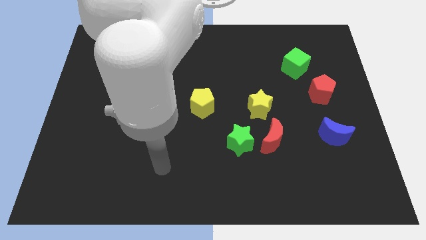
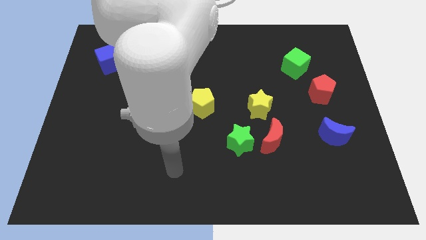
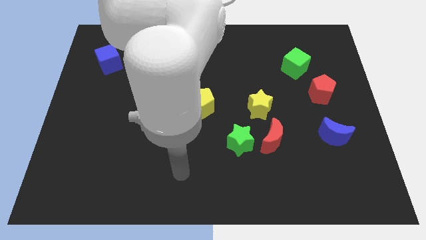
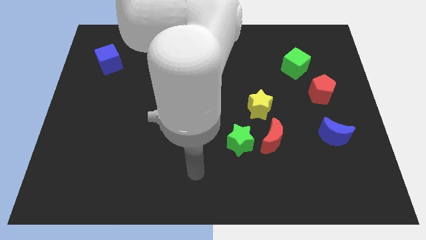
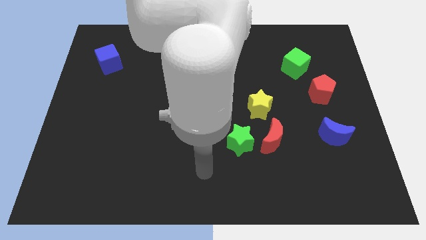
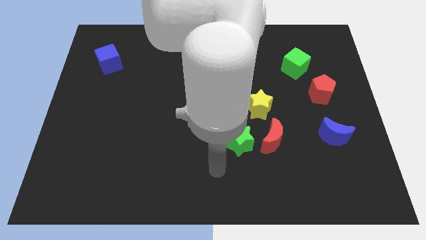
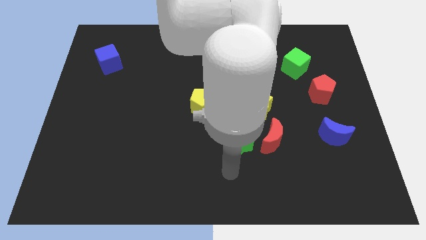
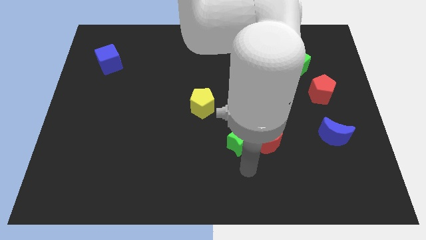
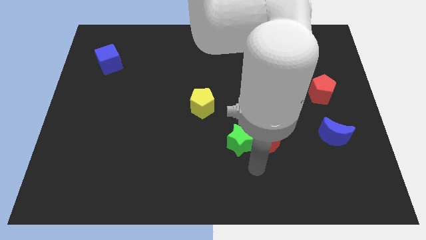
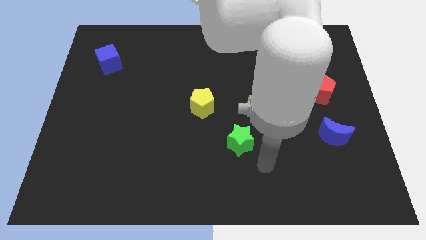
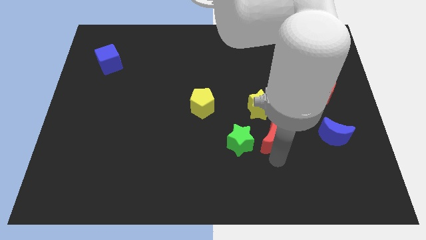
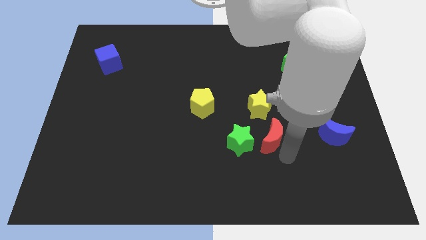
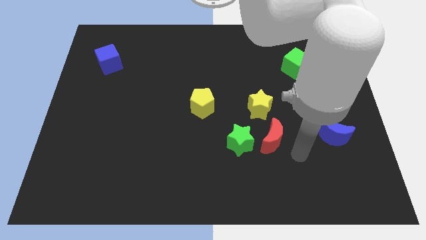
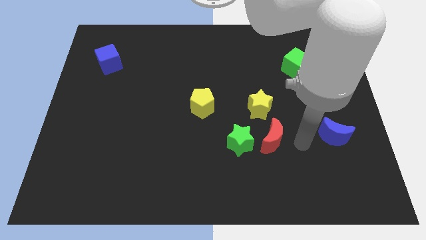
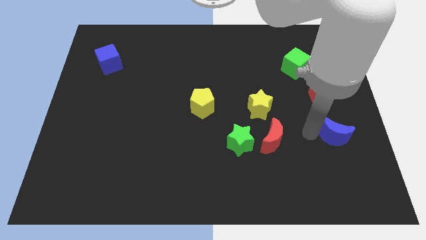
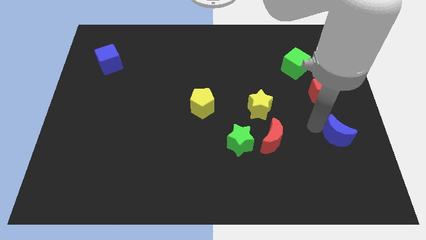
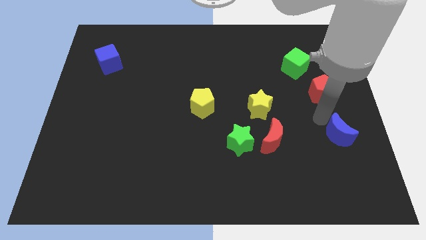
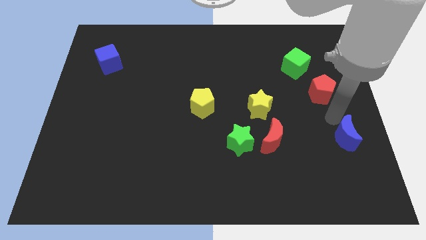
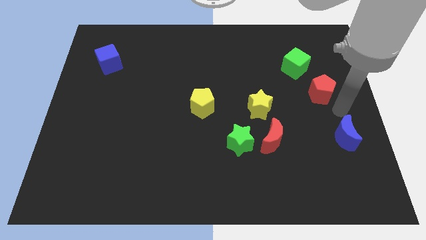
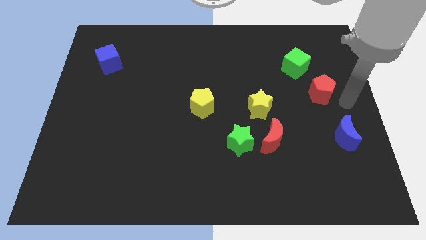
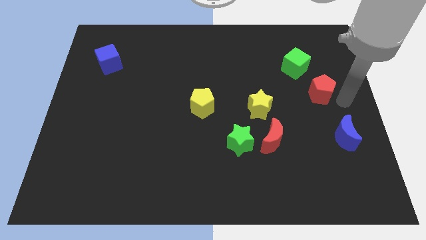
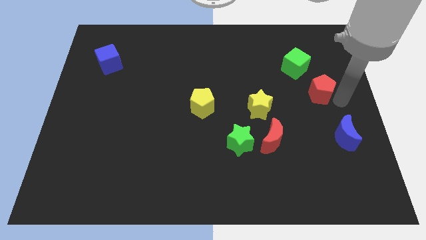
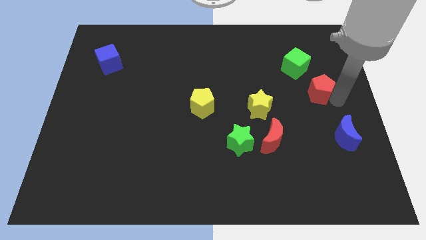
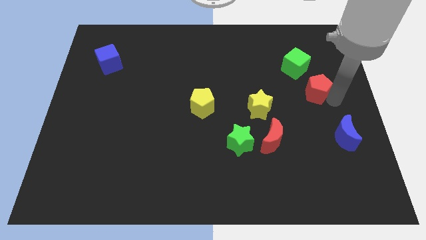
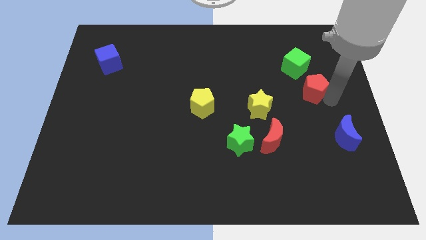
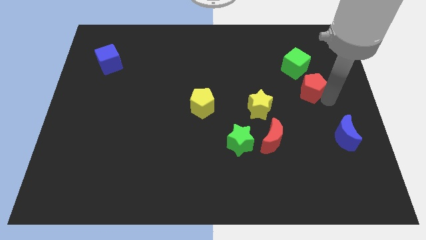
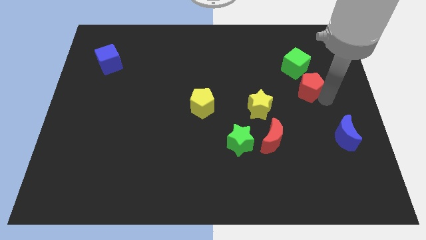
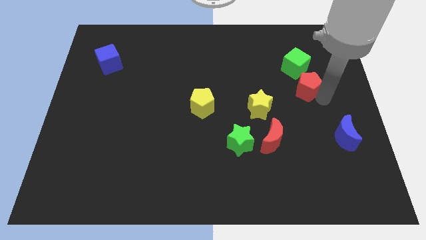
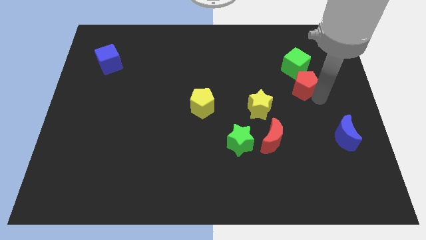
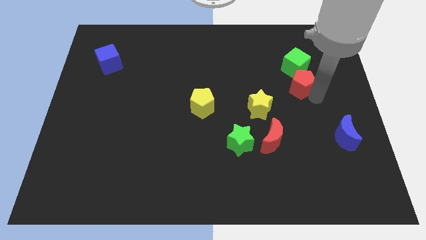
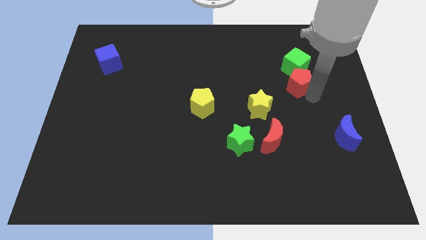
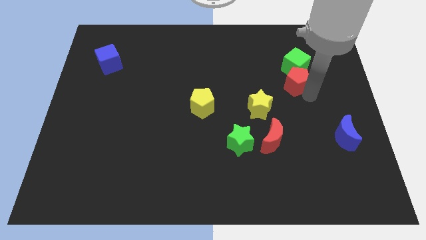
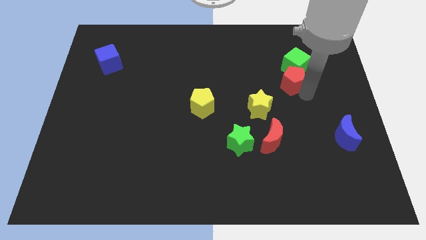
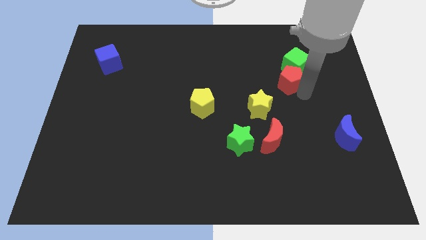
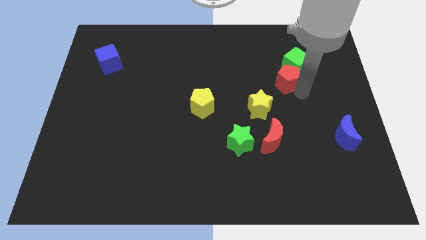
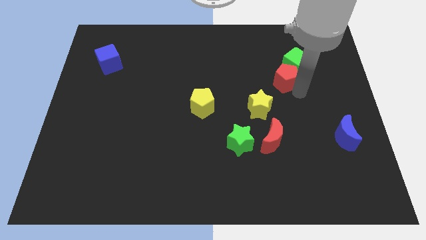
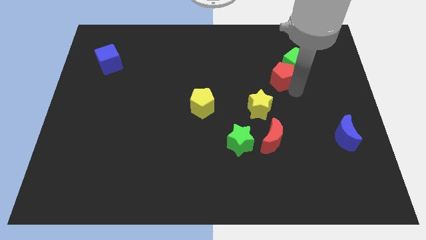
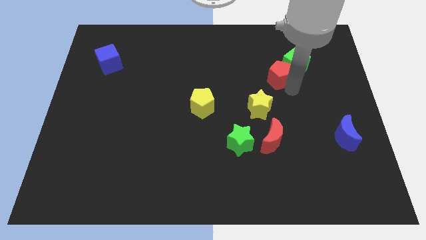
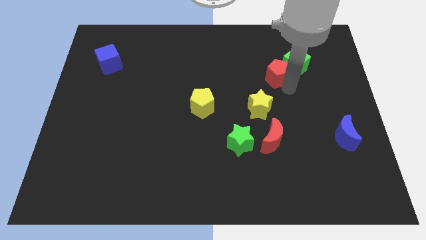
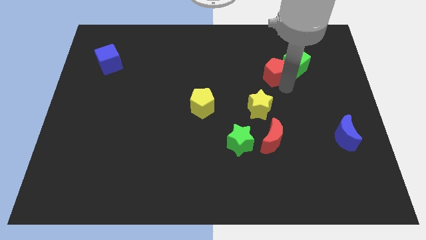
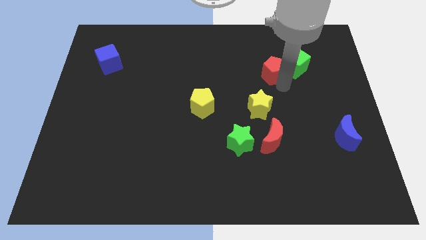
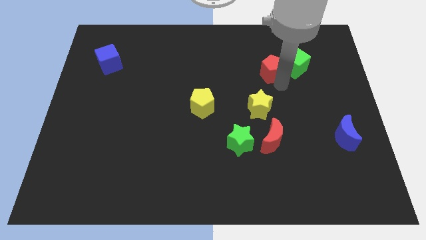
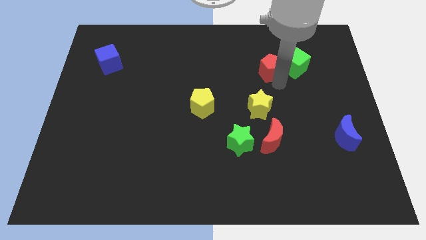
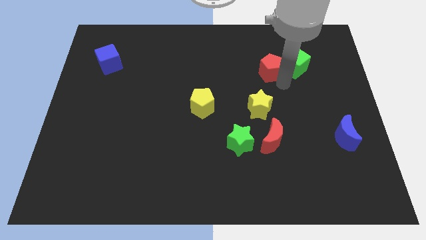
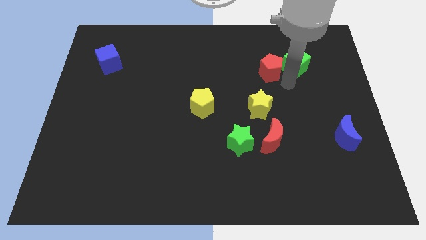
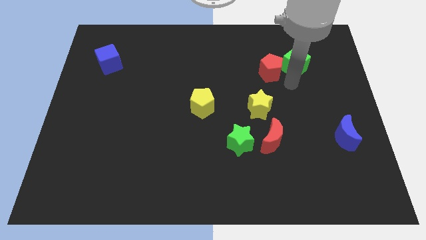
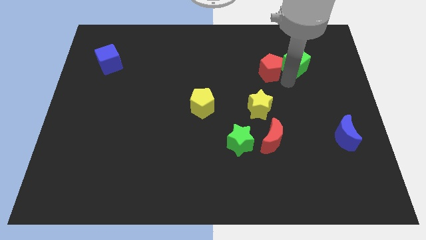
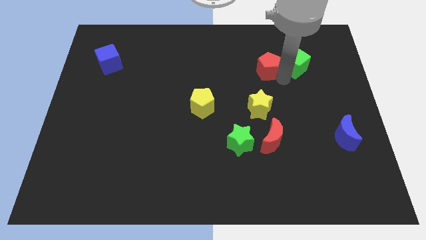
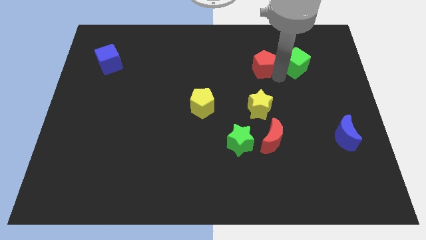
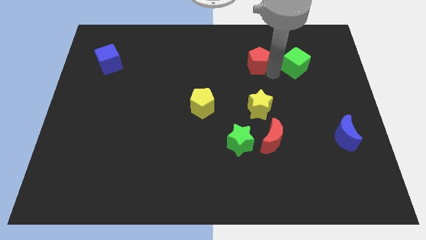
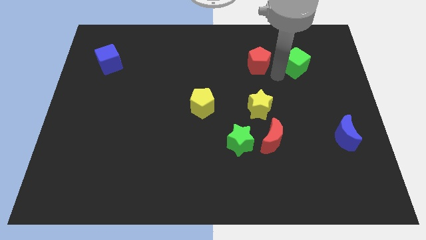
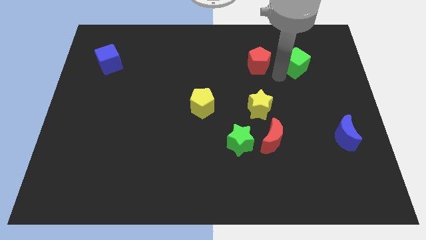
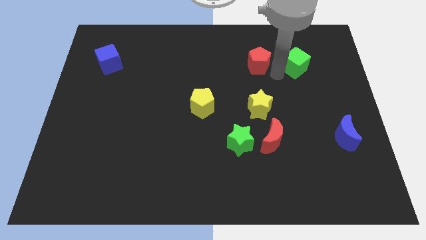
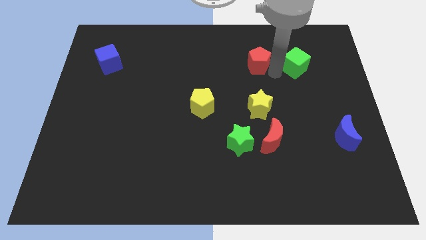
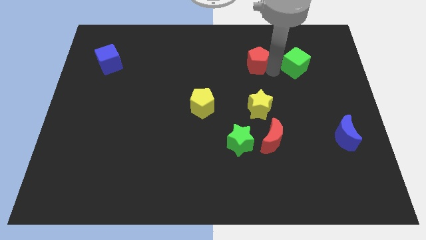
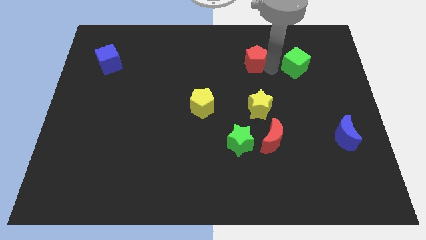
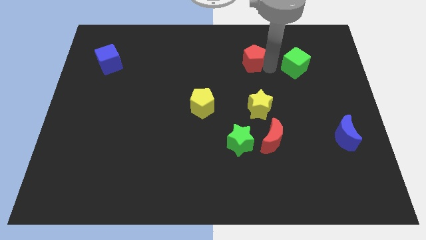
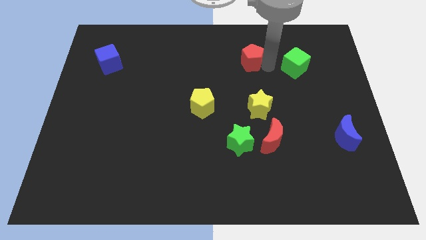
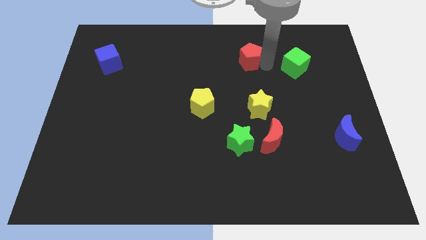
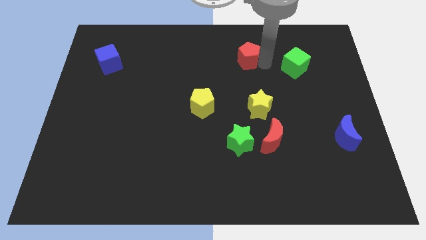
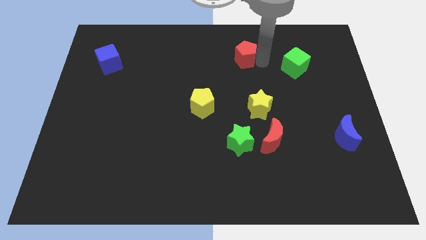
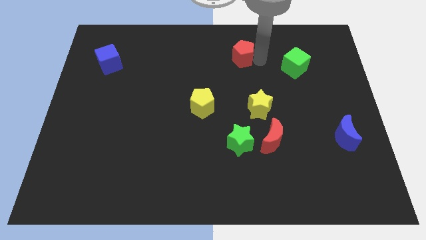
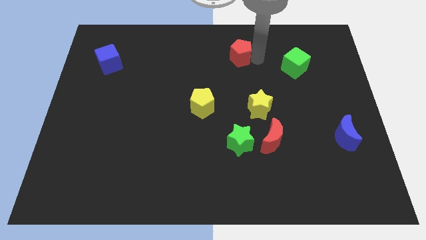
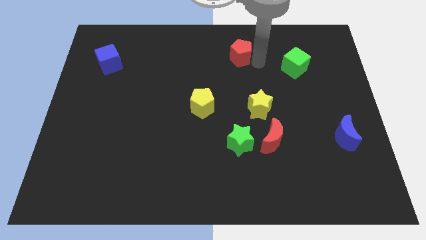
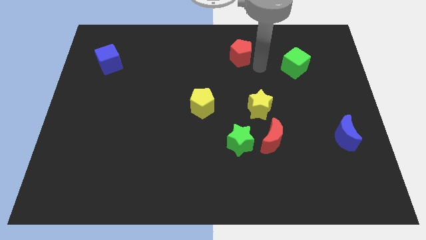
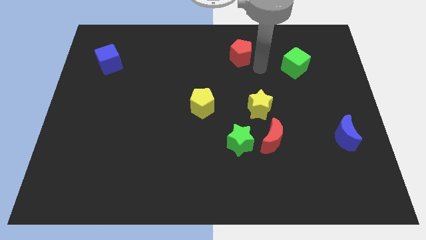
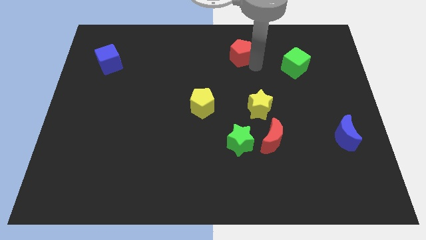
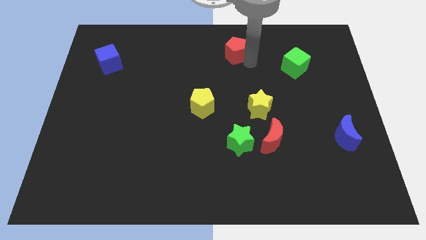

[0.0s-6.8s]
push the red pentagon to the top side

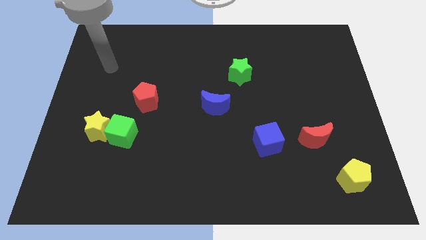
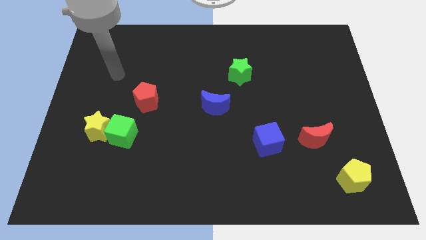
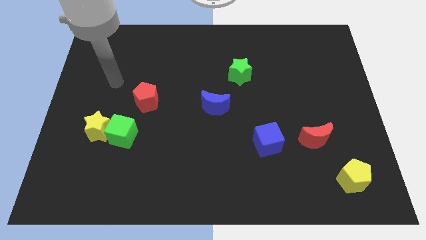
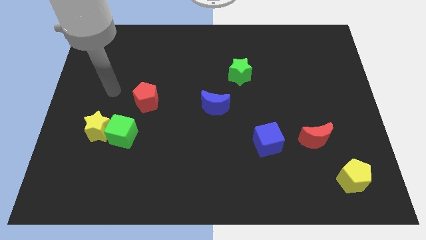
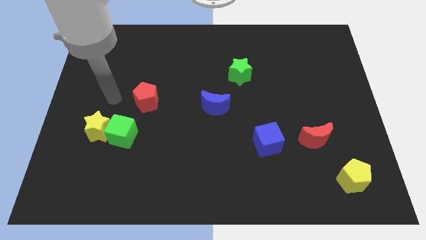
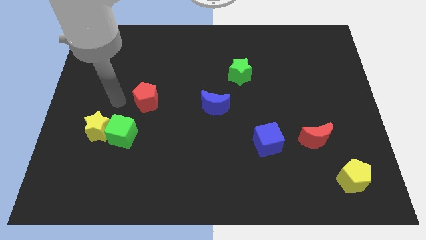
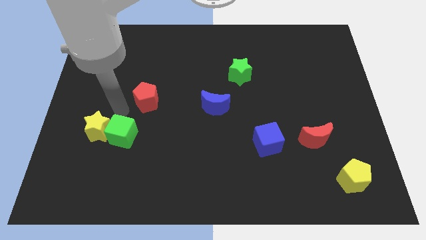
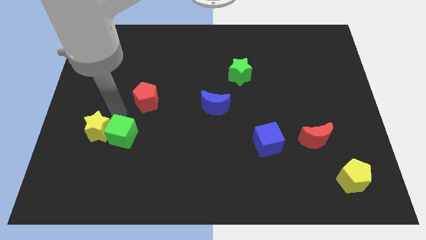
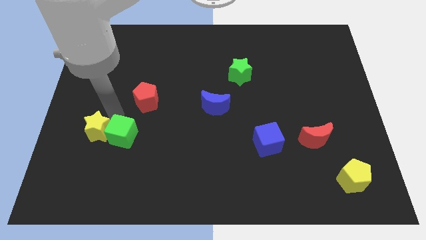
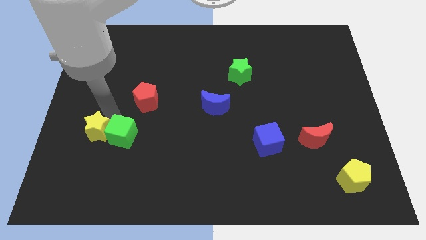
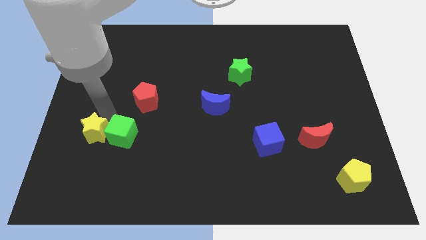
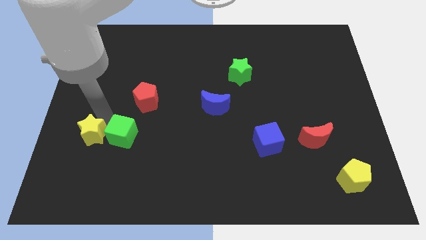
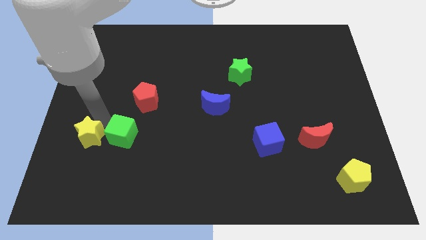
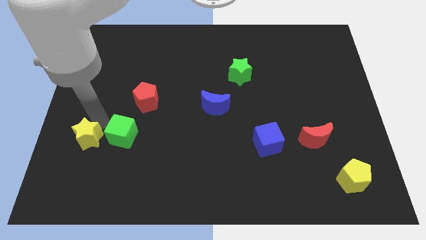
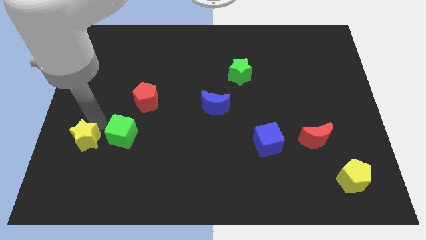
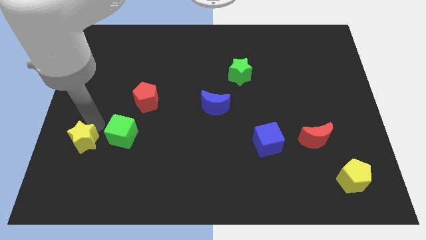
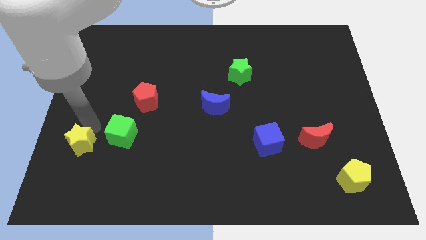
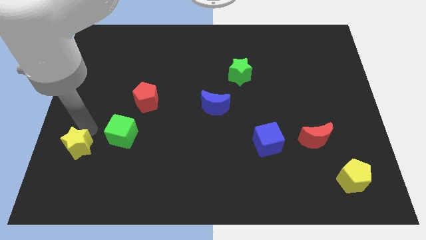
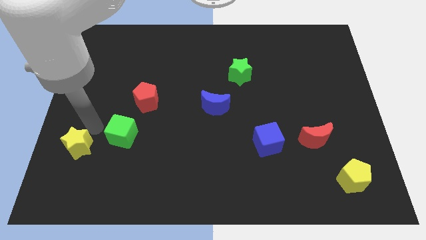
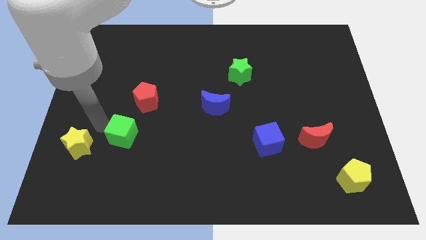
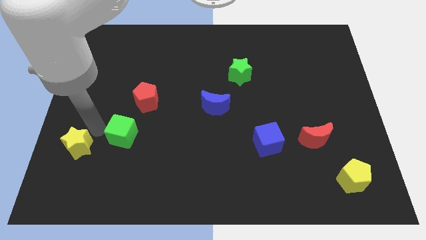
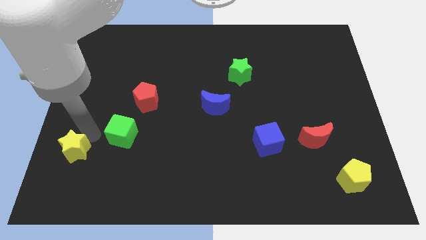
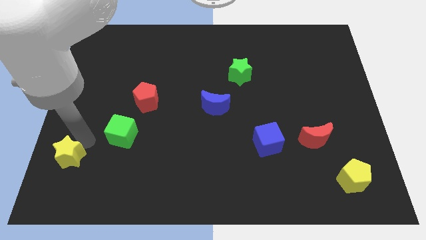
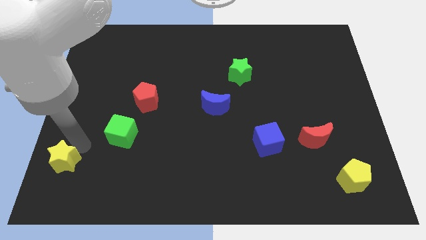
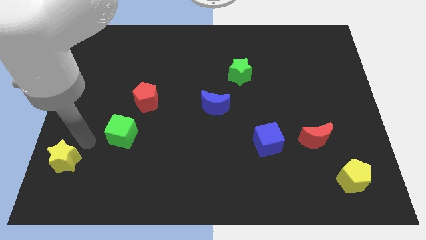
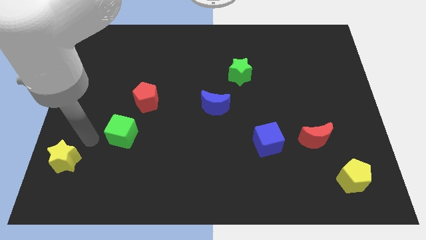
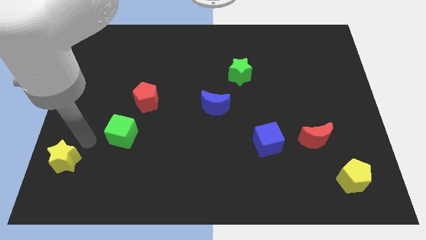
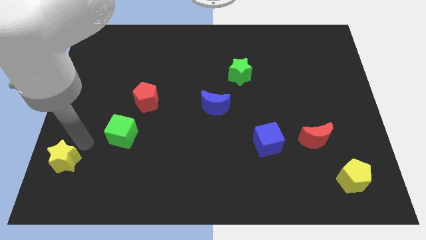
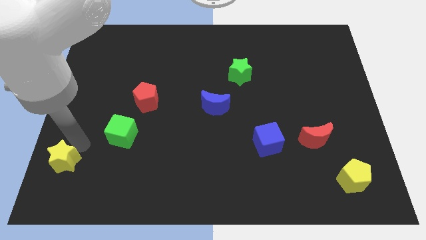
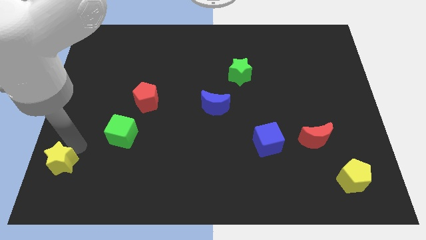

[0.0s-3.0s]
slide the yellow star to the bottom left of the board
